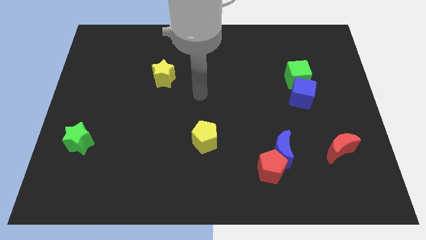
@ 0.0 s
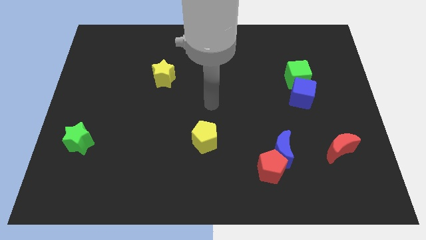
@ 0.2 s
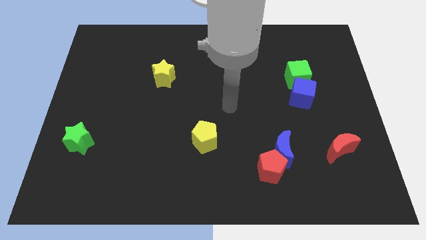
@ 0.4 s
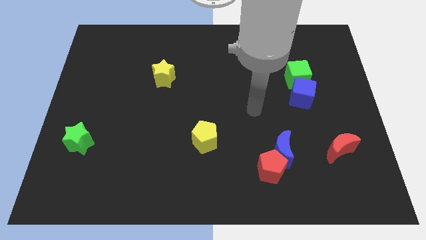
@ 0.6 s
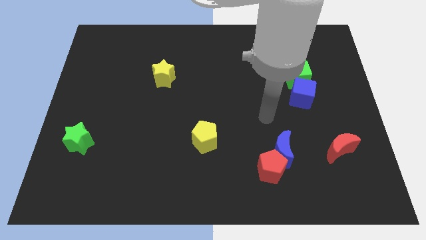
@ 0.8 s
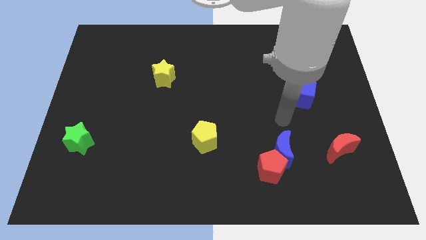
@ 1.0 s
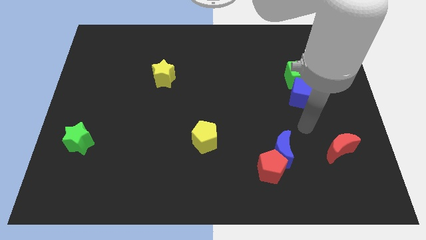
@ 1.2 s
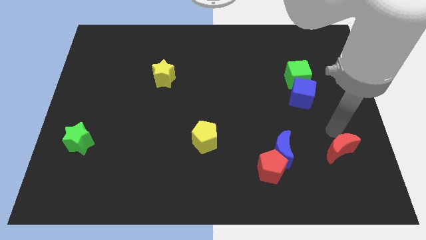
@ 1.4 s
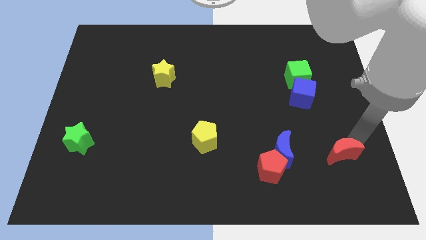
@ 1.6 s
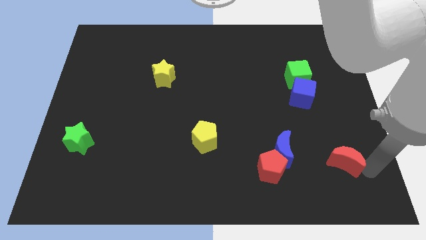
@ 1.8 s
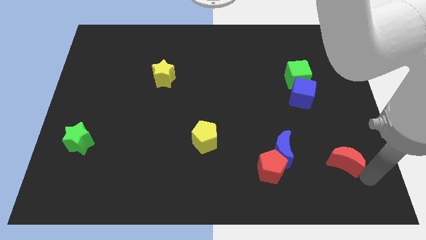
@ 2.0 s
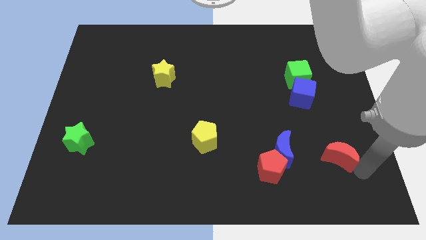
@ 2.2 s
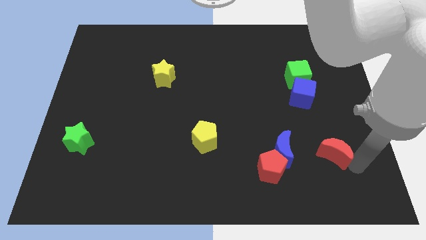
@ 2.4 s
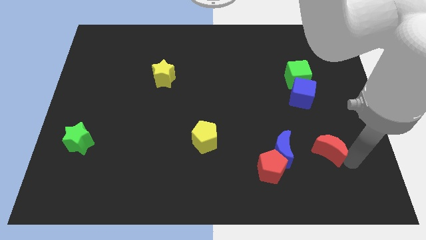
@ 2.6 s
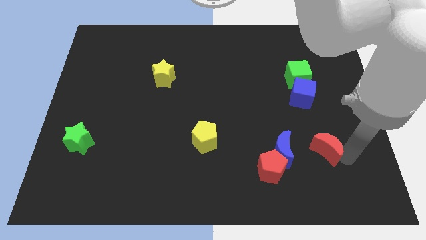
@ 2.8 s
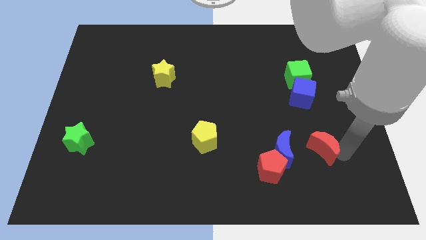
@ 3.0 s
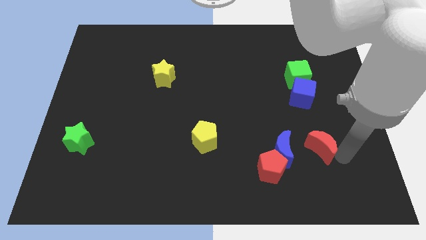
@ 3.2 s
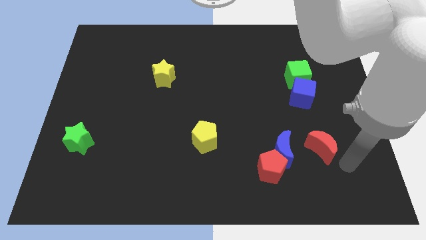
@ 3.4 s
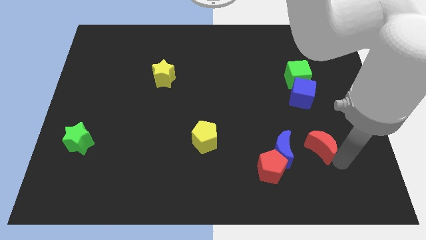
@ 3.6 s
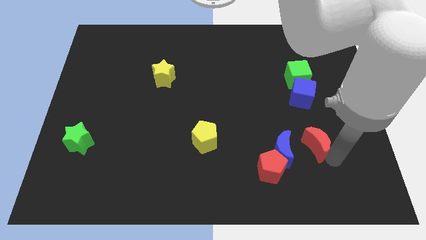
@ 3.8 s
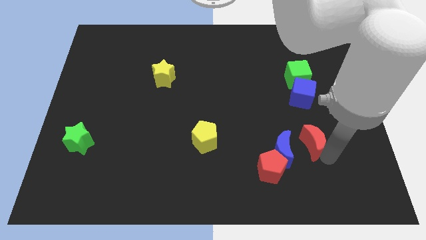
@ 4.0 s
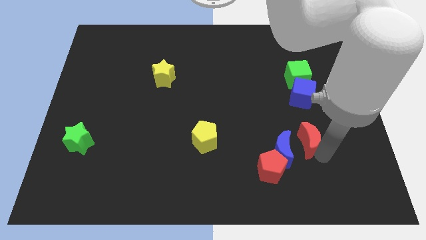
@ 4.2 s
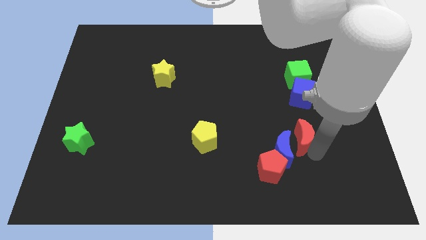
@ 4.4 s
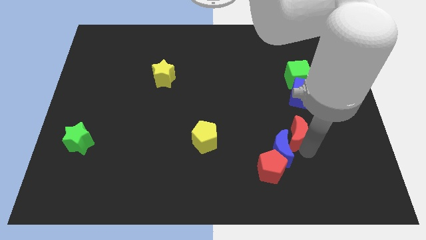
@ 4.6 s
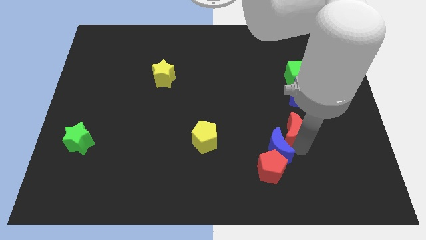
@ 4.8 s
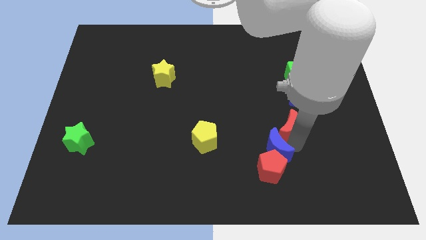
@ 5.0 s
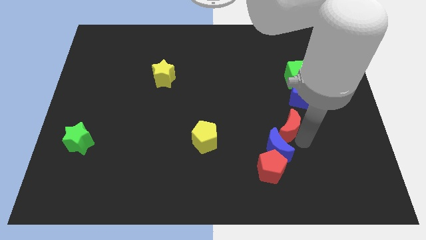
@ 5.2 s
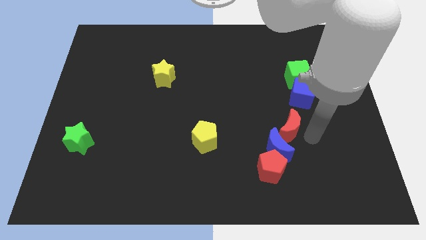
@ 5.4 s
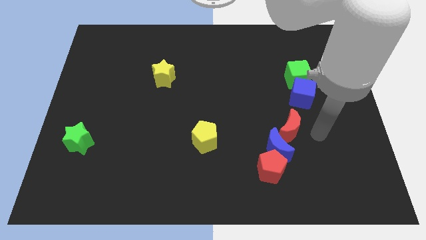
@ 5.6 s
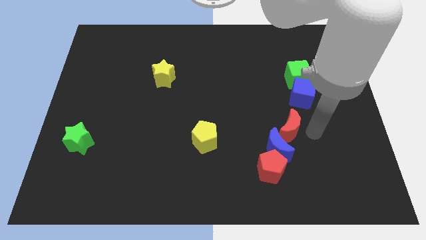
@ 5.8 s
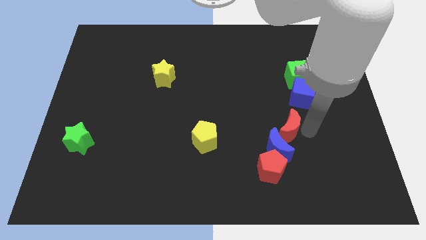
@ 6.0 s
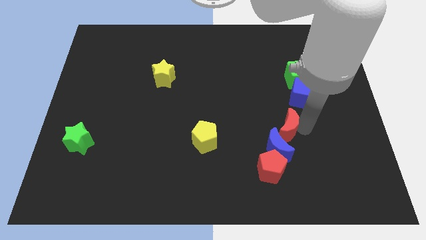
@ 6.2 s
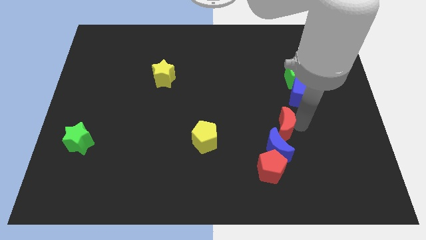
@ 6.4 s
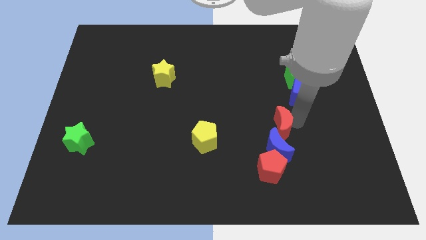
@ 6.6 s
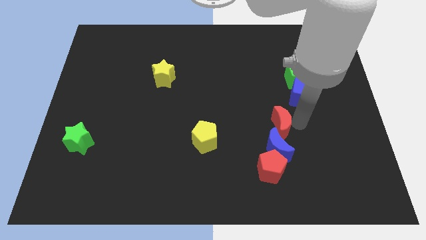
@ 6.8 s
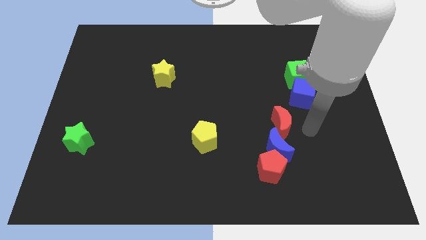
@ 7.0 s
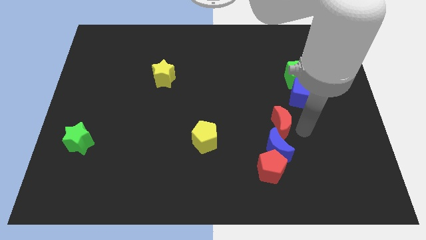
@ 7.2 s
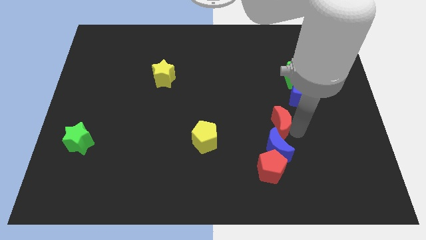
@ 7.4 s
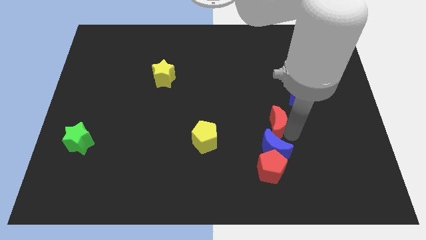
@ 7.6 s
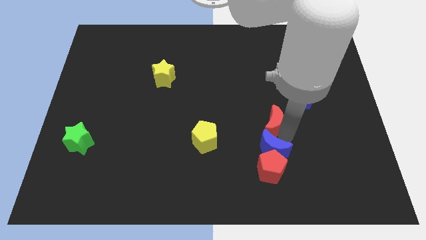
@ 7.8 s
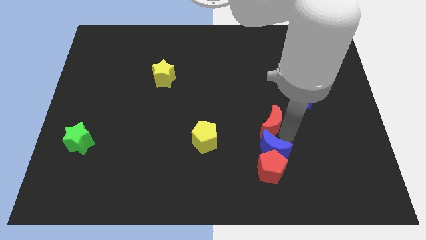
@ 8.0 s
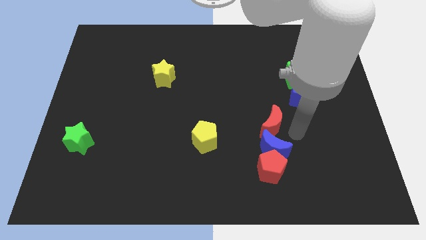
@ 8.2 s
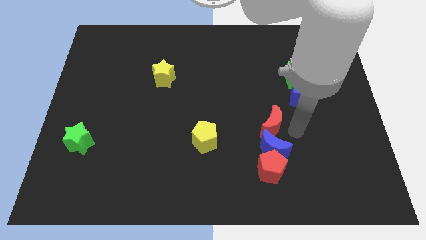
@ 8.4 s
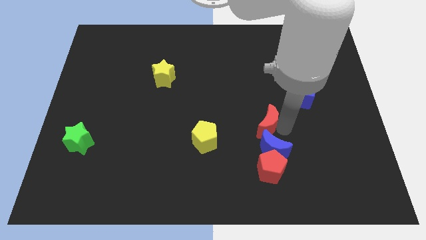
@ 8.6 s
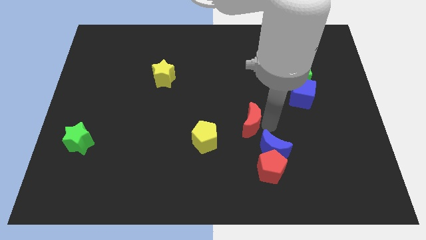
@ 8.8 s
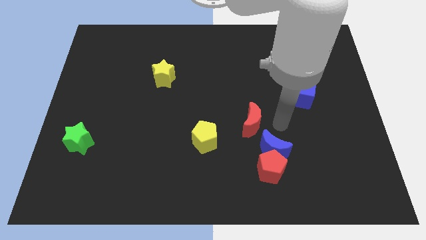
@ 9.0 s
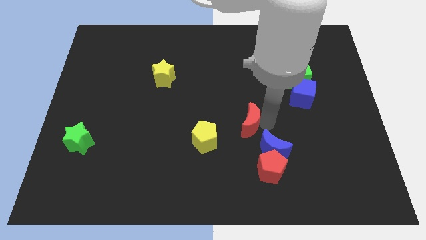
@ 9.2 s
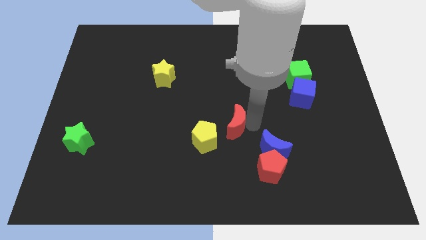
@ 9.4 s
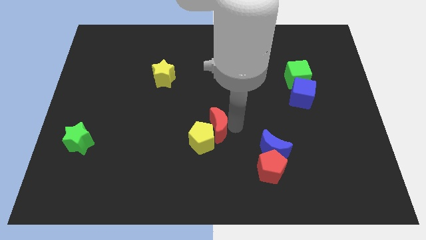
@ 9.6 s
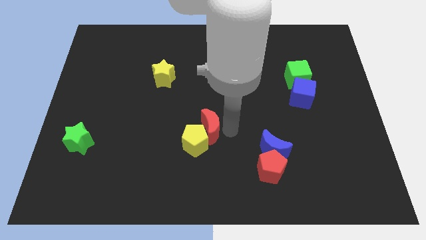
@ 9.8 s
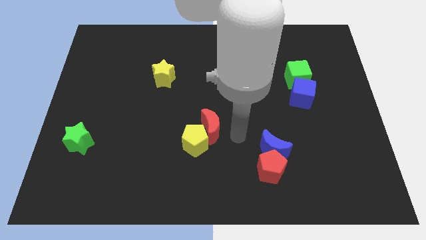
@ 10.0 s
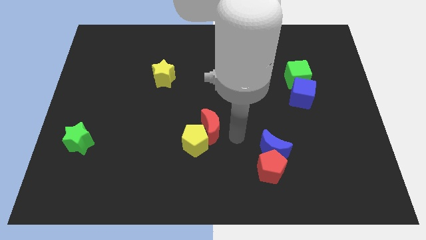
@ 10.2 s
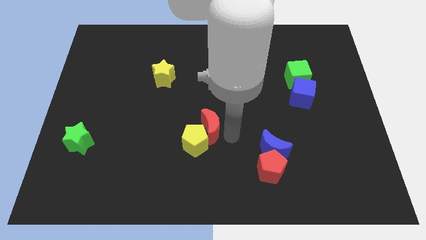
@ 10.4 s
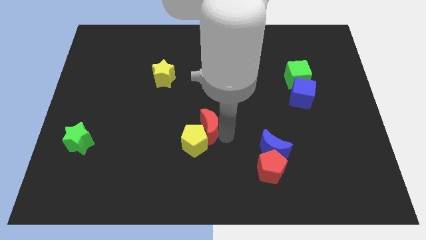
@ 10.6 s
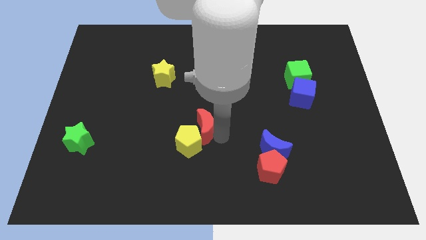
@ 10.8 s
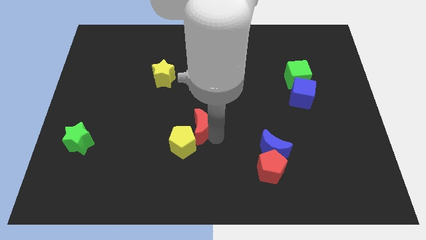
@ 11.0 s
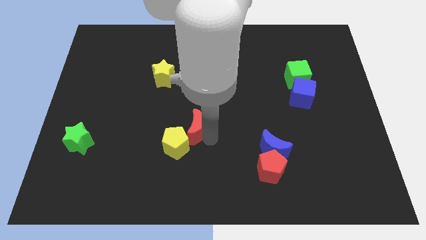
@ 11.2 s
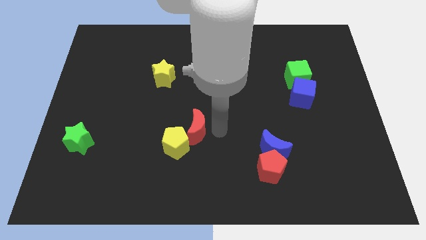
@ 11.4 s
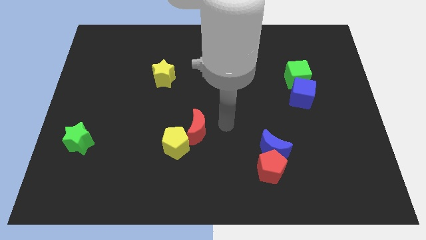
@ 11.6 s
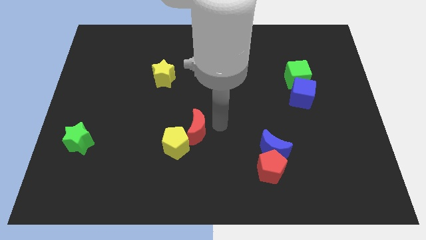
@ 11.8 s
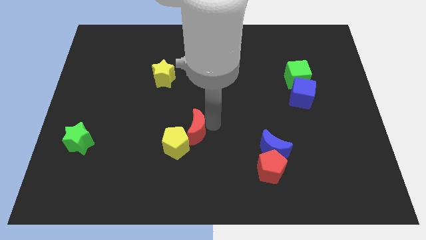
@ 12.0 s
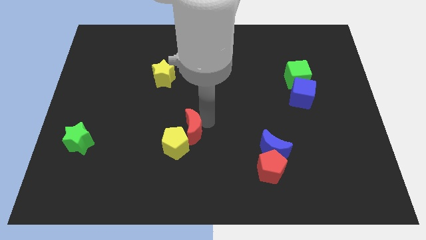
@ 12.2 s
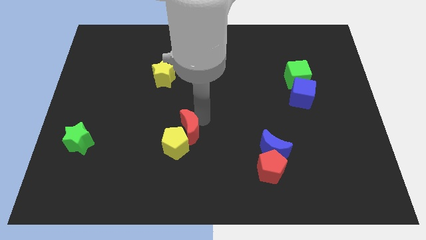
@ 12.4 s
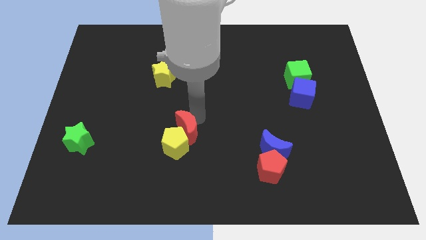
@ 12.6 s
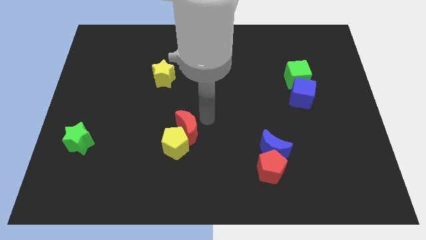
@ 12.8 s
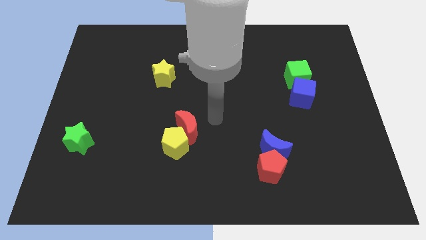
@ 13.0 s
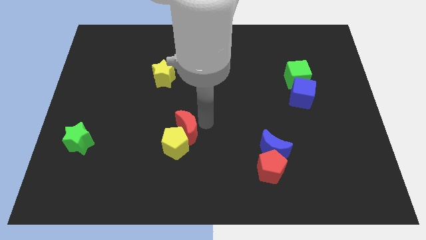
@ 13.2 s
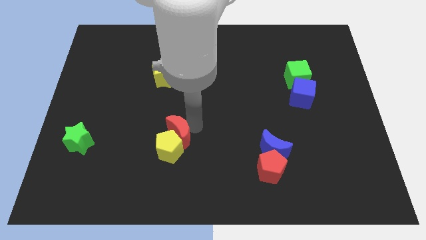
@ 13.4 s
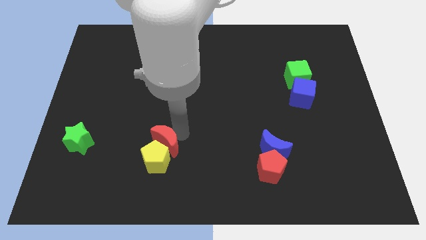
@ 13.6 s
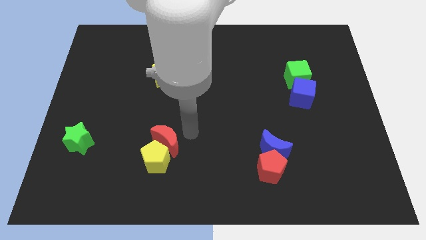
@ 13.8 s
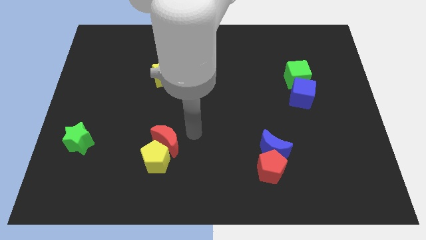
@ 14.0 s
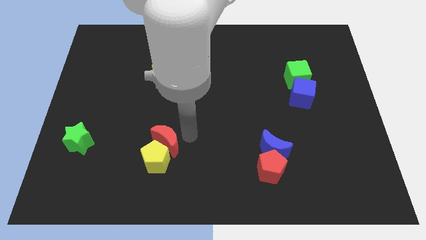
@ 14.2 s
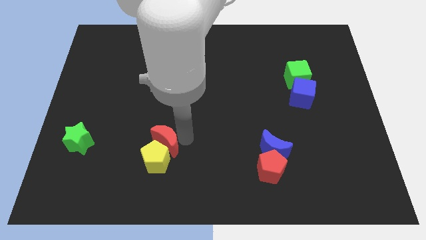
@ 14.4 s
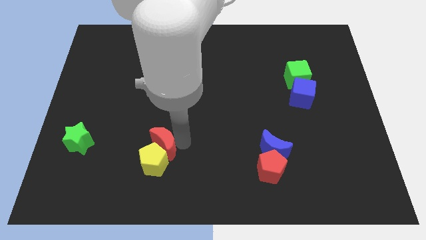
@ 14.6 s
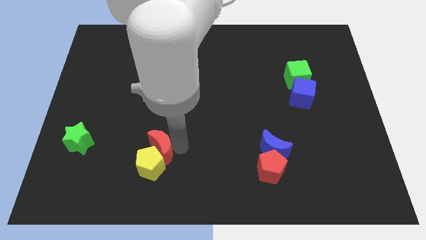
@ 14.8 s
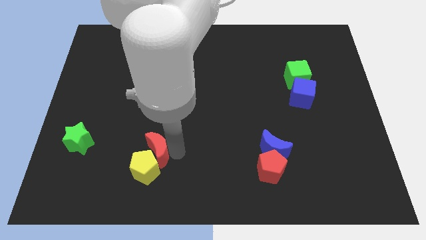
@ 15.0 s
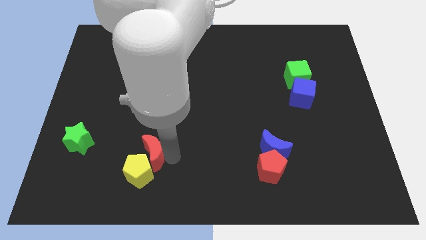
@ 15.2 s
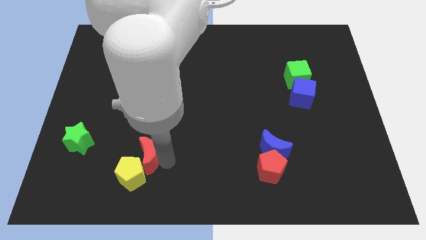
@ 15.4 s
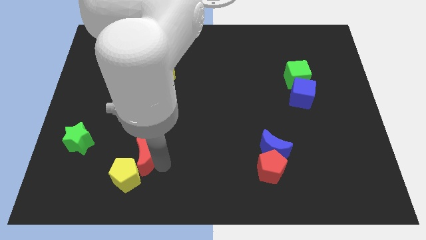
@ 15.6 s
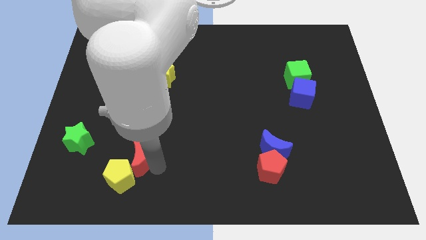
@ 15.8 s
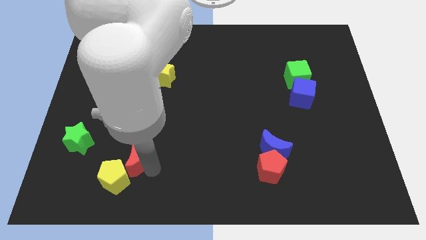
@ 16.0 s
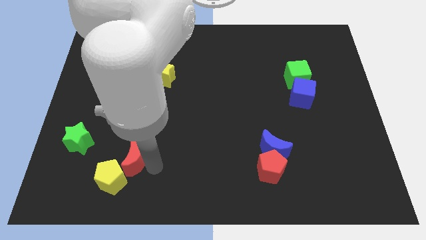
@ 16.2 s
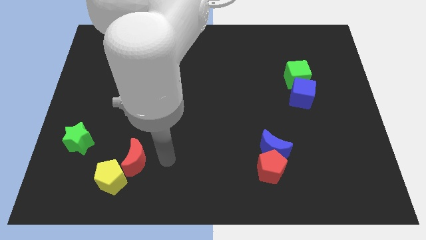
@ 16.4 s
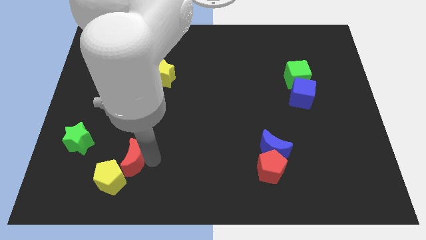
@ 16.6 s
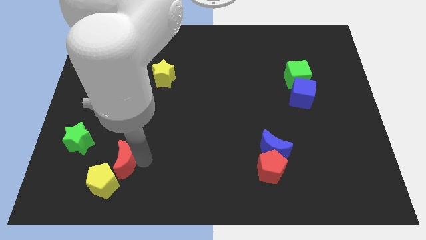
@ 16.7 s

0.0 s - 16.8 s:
push the red moon to the bottom right side of the green star
